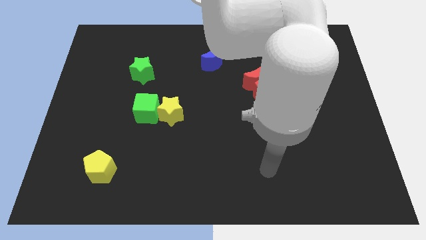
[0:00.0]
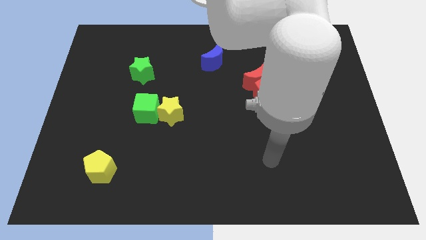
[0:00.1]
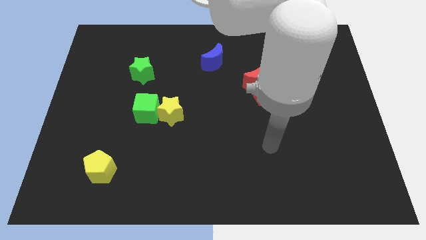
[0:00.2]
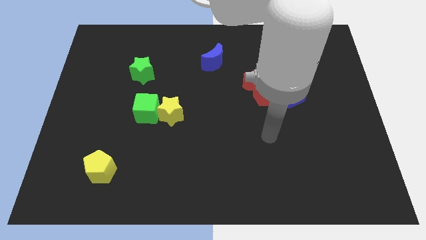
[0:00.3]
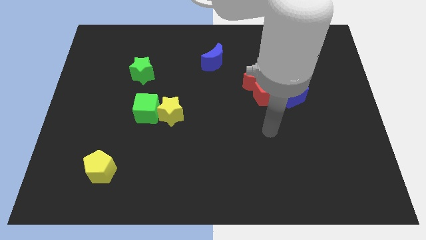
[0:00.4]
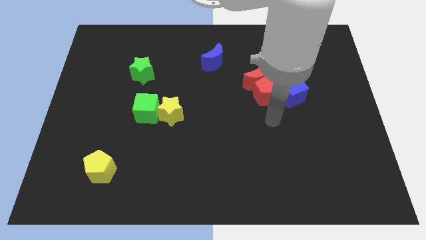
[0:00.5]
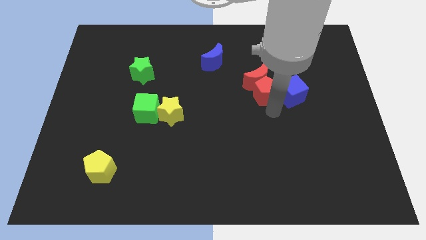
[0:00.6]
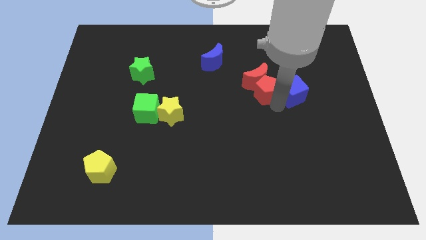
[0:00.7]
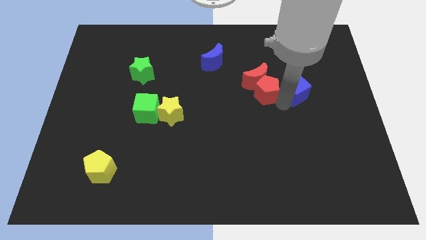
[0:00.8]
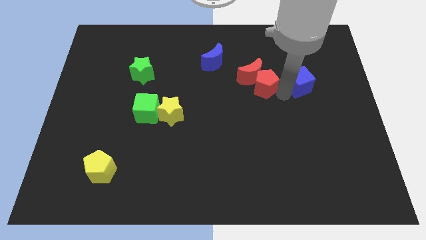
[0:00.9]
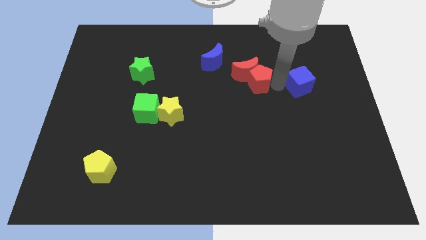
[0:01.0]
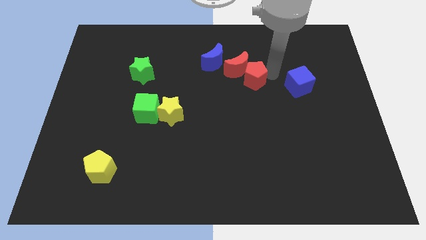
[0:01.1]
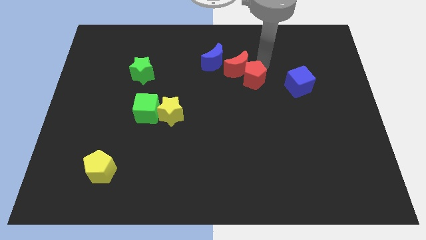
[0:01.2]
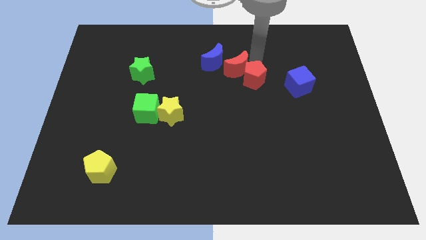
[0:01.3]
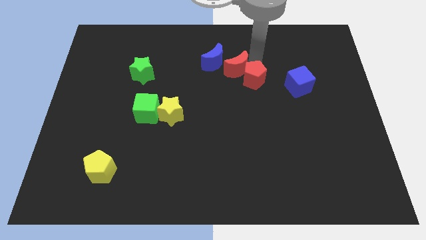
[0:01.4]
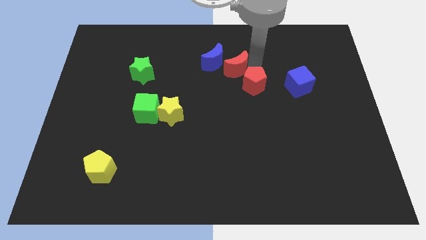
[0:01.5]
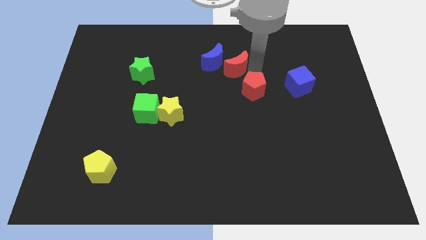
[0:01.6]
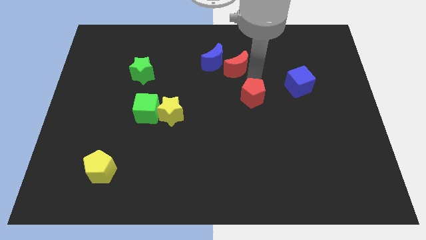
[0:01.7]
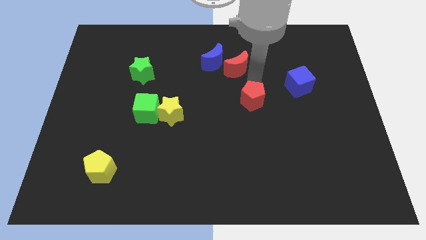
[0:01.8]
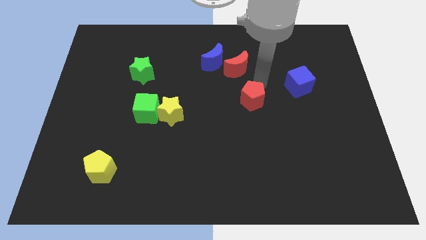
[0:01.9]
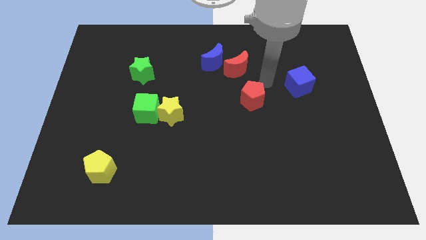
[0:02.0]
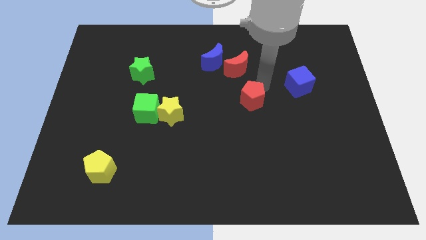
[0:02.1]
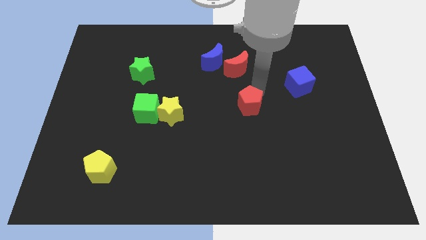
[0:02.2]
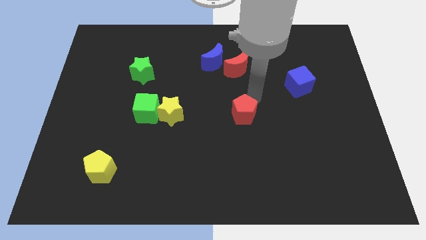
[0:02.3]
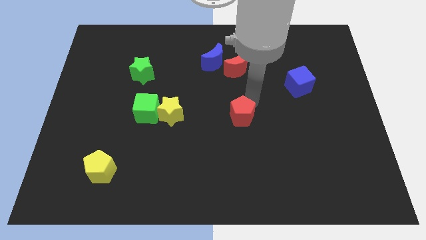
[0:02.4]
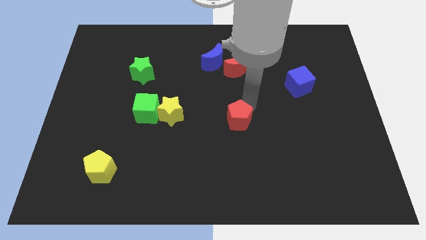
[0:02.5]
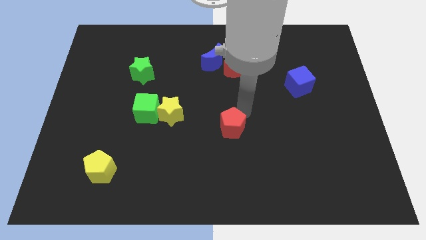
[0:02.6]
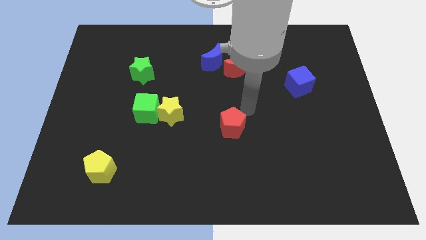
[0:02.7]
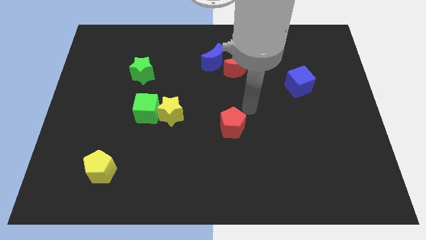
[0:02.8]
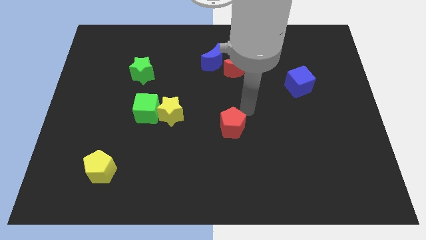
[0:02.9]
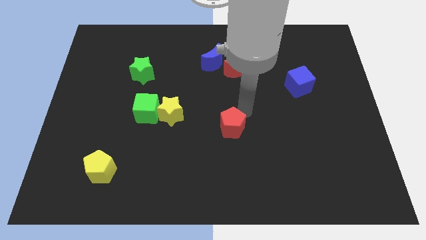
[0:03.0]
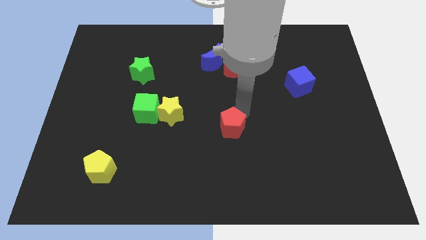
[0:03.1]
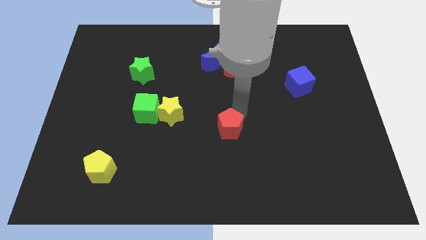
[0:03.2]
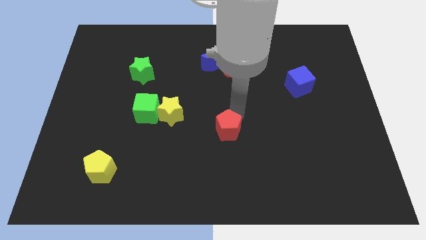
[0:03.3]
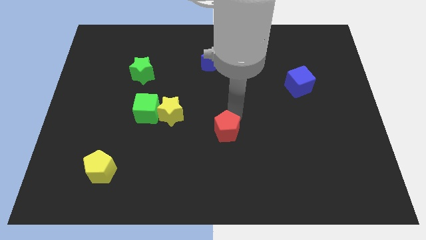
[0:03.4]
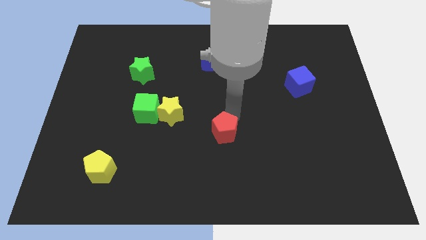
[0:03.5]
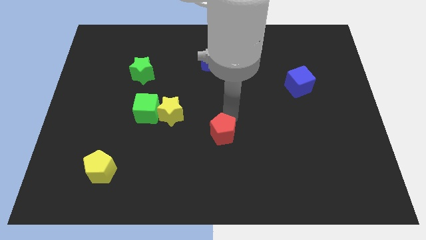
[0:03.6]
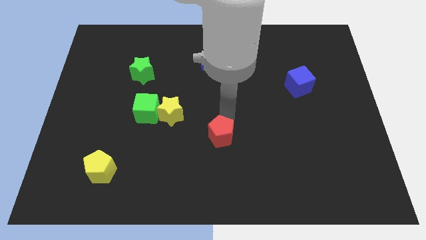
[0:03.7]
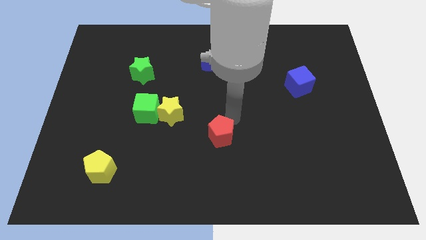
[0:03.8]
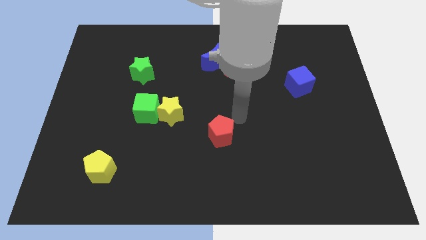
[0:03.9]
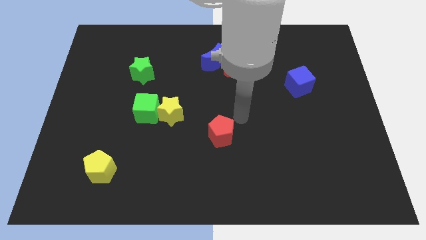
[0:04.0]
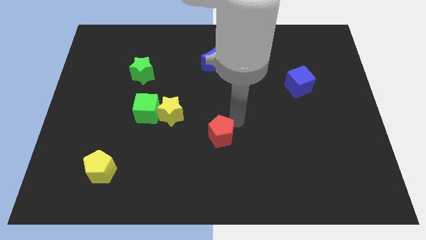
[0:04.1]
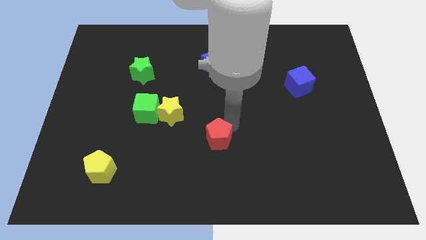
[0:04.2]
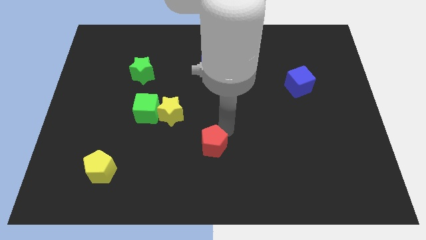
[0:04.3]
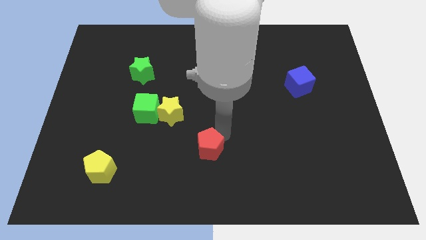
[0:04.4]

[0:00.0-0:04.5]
slide the red pentagon down and then left

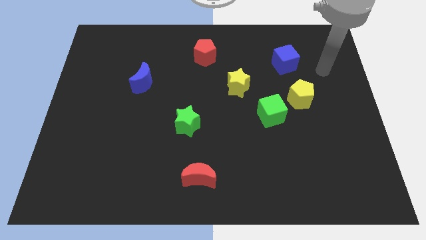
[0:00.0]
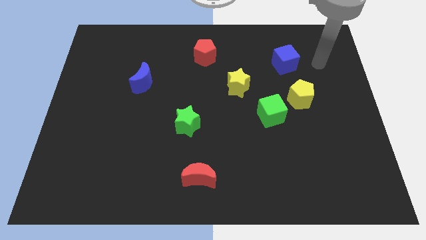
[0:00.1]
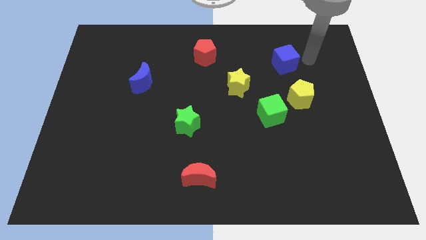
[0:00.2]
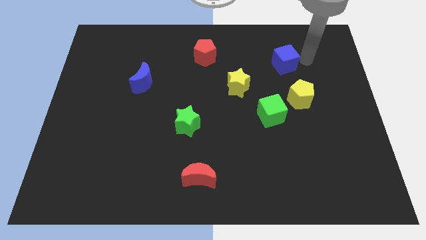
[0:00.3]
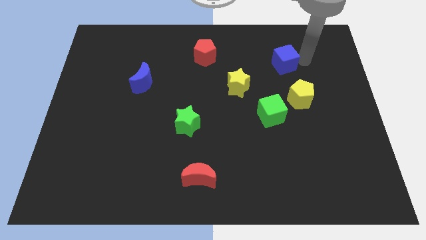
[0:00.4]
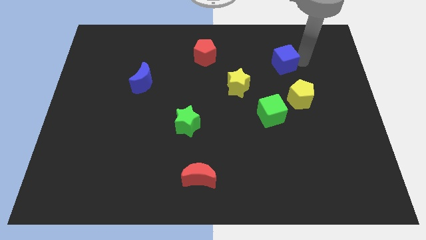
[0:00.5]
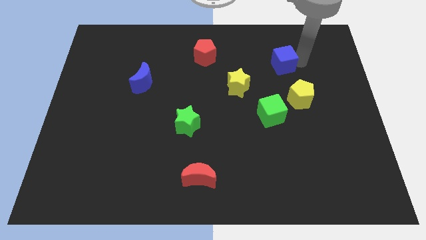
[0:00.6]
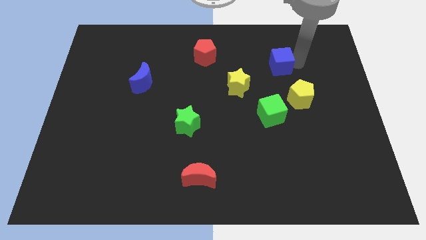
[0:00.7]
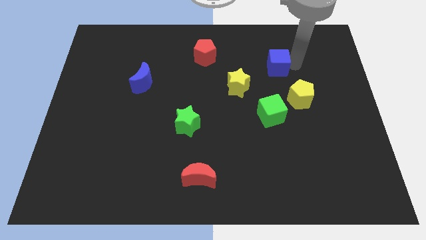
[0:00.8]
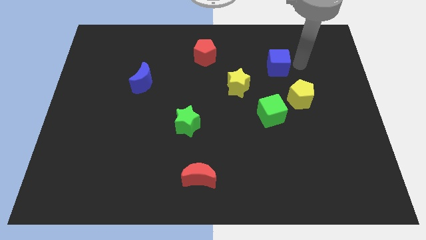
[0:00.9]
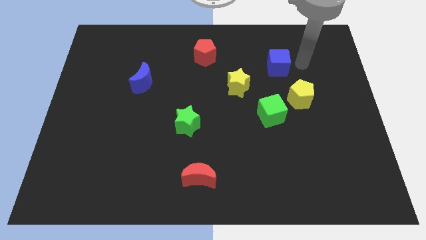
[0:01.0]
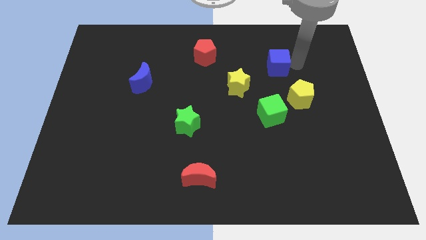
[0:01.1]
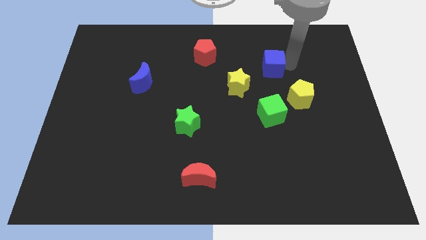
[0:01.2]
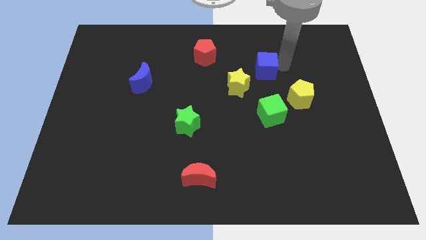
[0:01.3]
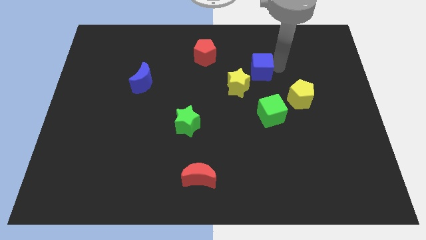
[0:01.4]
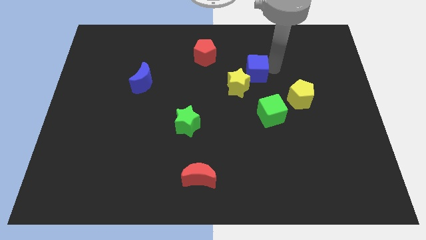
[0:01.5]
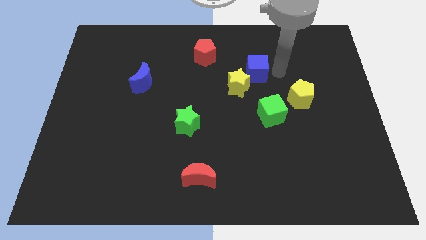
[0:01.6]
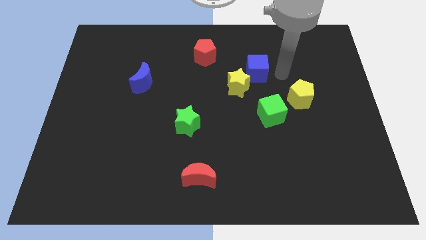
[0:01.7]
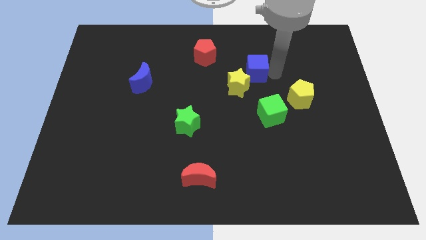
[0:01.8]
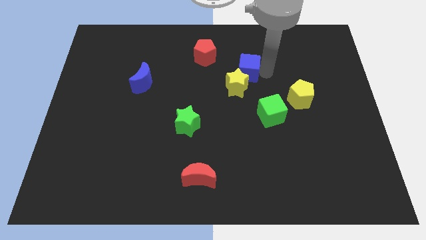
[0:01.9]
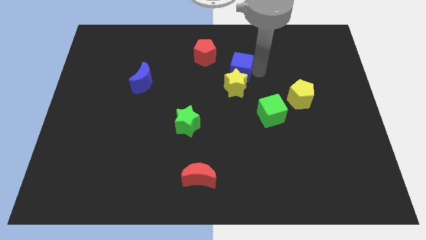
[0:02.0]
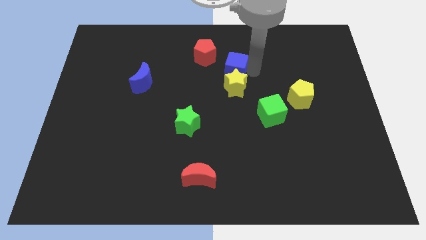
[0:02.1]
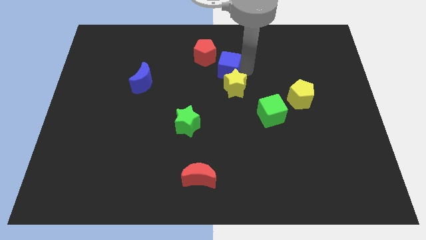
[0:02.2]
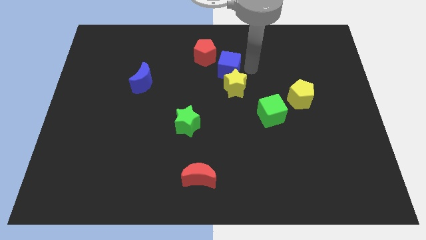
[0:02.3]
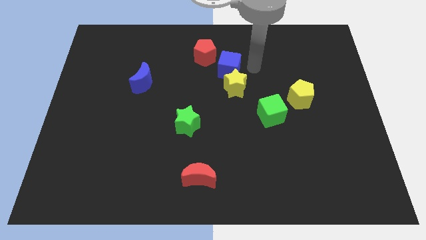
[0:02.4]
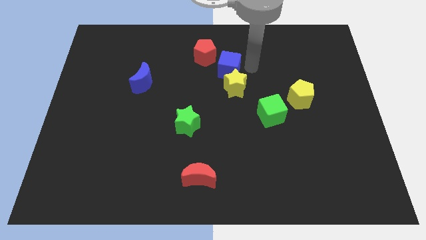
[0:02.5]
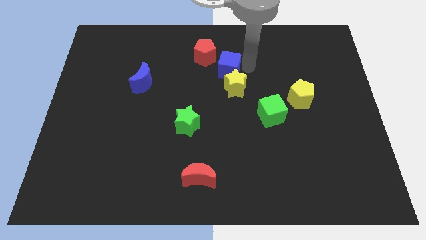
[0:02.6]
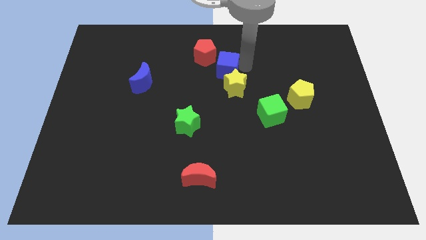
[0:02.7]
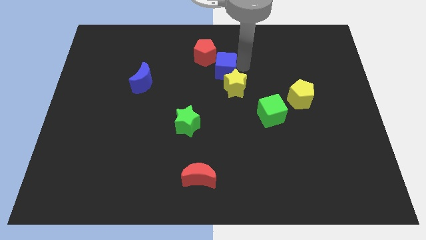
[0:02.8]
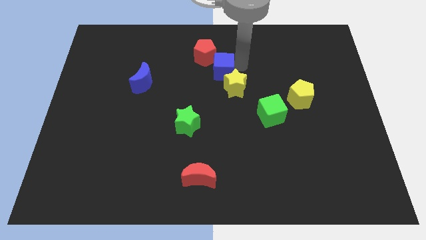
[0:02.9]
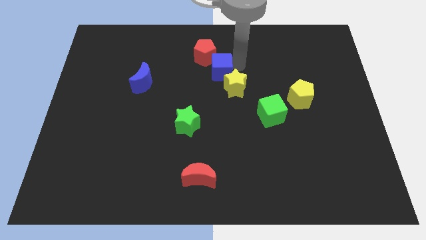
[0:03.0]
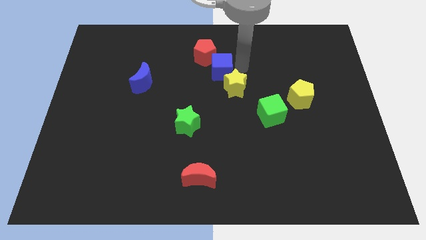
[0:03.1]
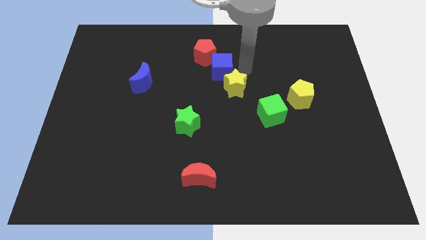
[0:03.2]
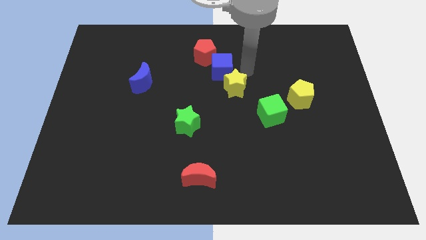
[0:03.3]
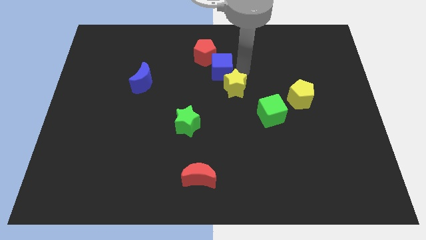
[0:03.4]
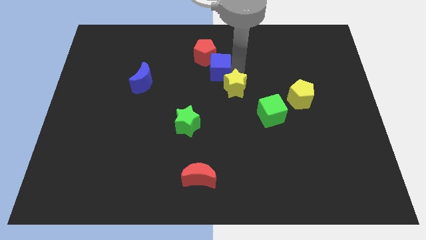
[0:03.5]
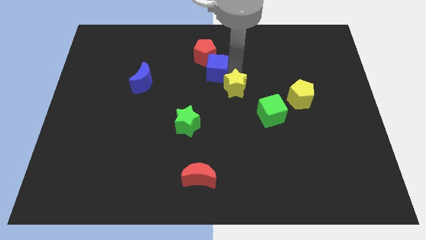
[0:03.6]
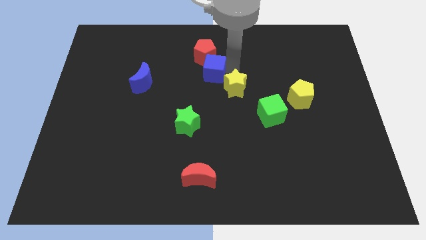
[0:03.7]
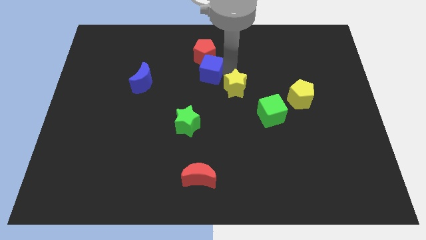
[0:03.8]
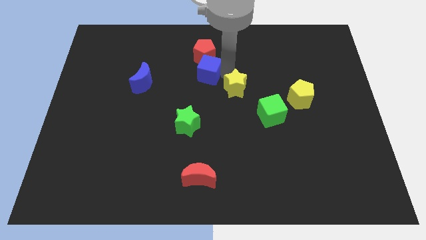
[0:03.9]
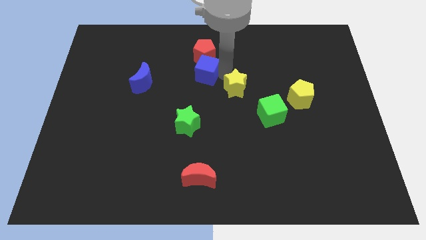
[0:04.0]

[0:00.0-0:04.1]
push the blue cube left
